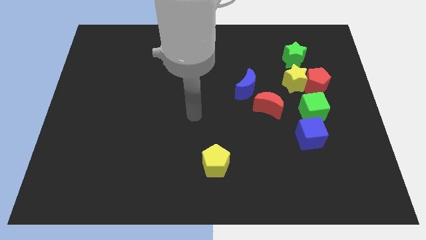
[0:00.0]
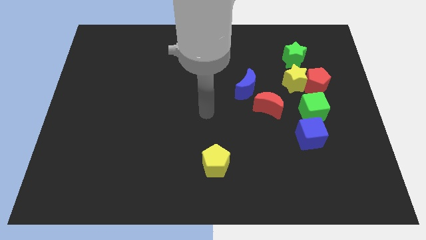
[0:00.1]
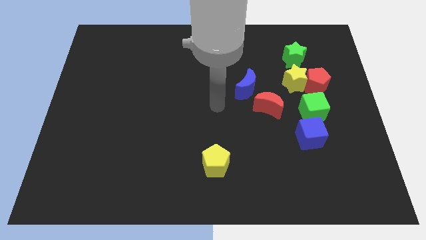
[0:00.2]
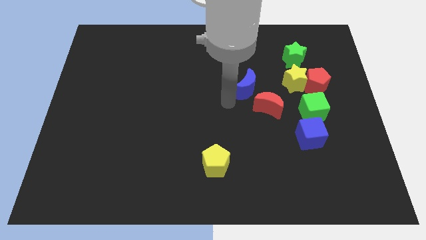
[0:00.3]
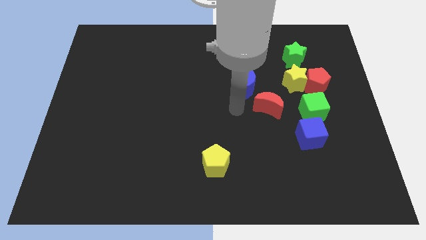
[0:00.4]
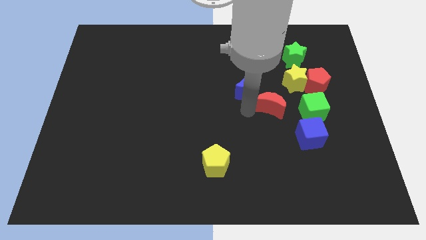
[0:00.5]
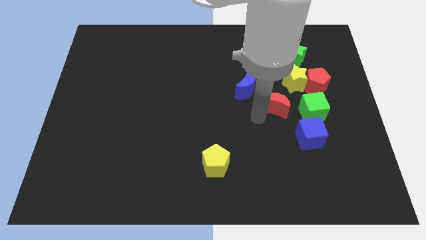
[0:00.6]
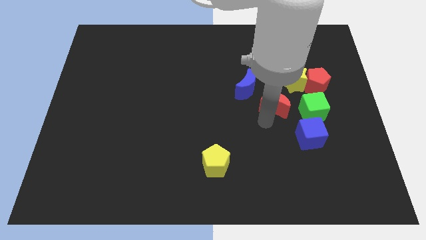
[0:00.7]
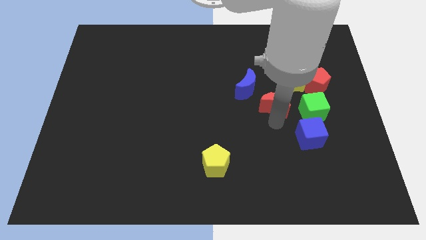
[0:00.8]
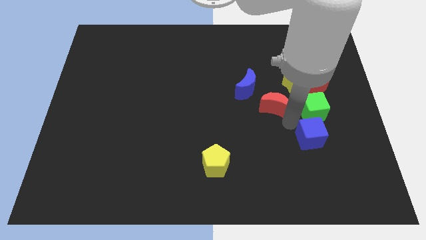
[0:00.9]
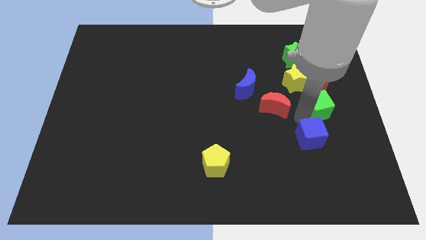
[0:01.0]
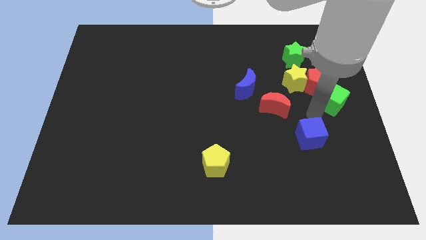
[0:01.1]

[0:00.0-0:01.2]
move the blue cube away from the green cube

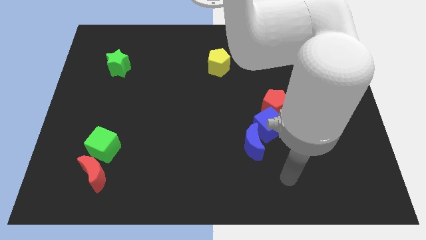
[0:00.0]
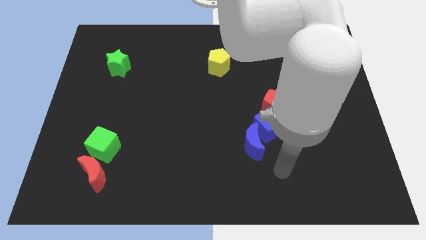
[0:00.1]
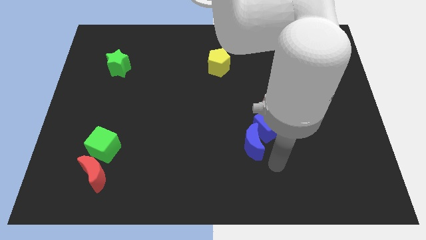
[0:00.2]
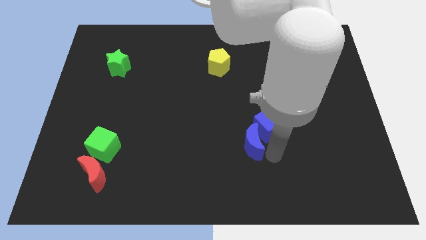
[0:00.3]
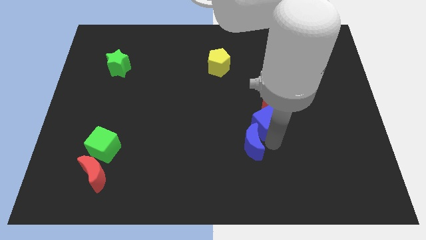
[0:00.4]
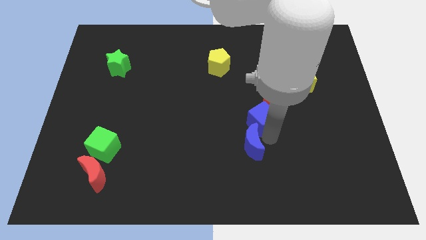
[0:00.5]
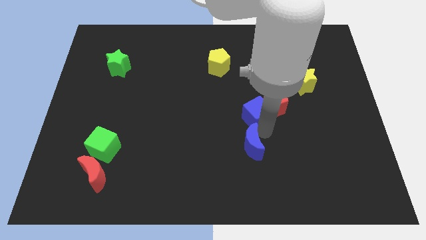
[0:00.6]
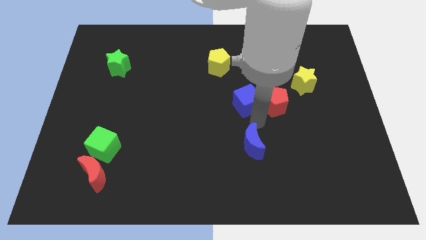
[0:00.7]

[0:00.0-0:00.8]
pull the blue moon apart from the blue cube

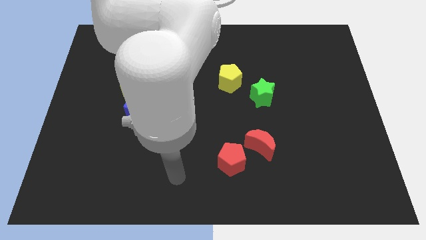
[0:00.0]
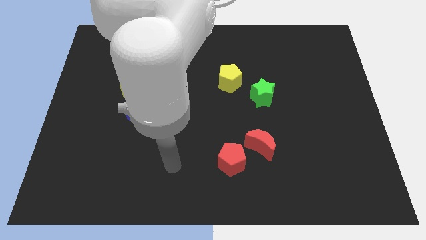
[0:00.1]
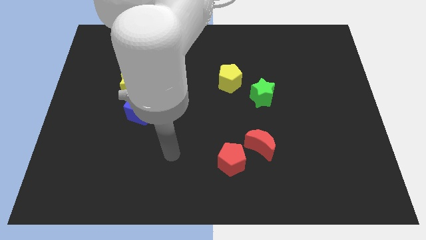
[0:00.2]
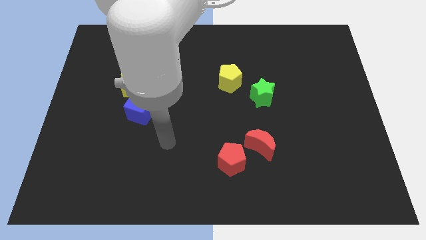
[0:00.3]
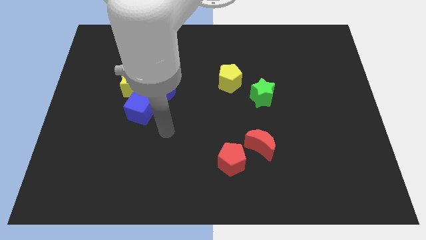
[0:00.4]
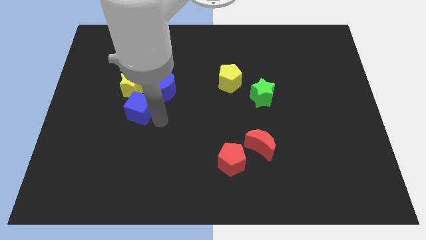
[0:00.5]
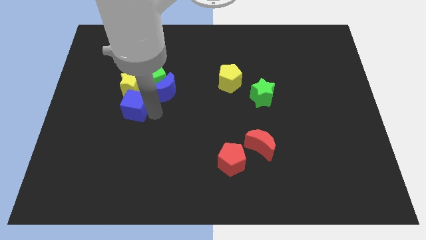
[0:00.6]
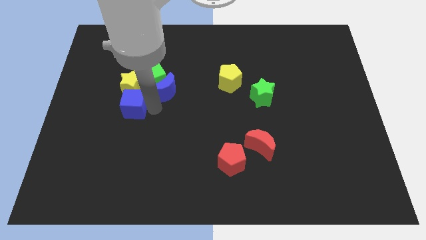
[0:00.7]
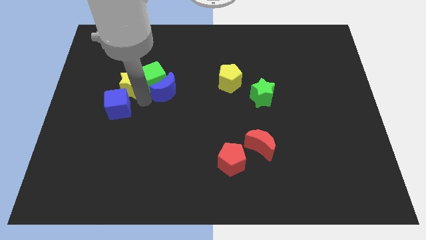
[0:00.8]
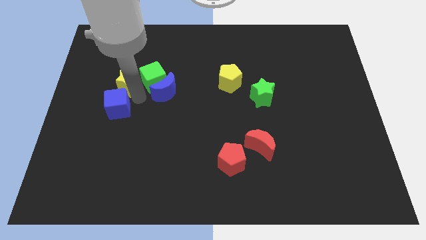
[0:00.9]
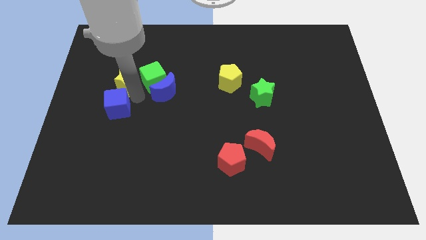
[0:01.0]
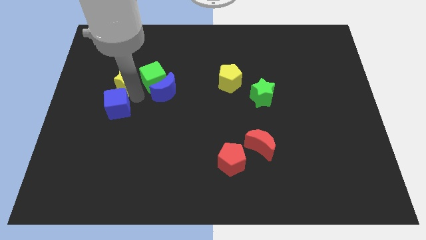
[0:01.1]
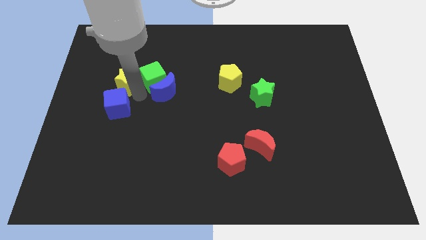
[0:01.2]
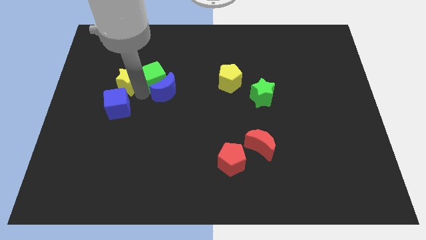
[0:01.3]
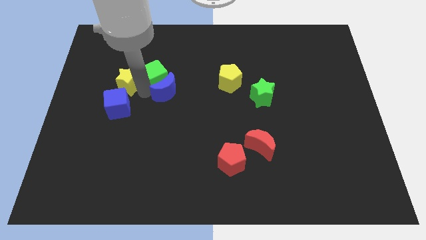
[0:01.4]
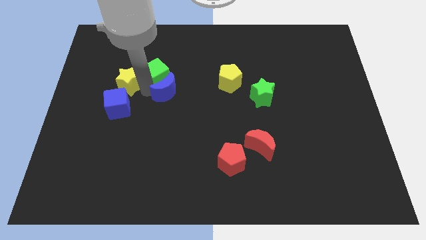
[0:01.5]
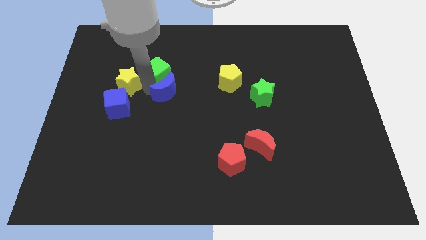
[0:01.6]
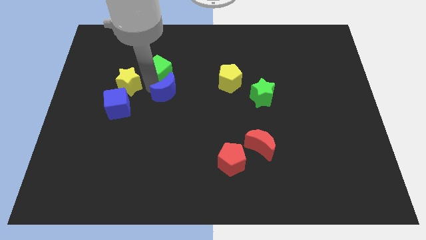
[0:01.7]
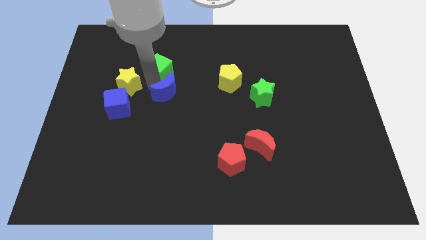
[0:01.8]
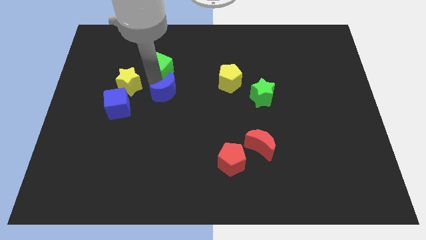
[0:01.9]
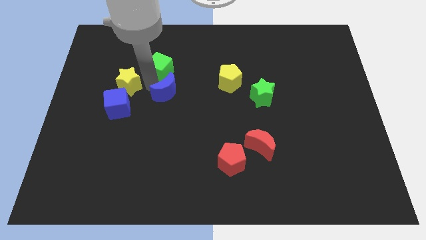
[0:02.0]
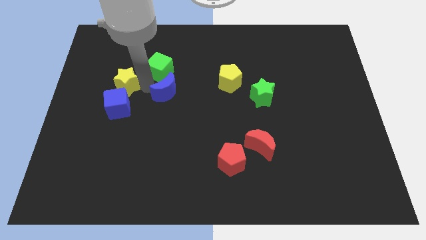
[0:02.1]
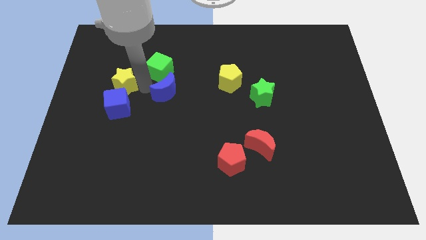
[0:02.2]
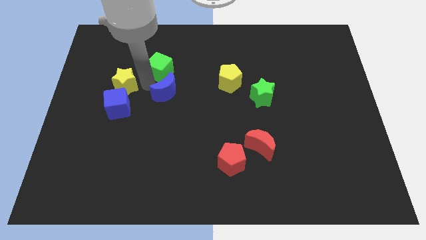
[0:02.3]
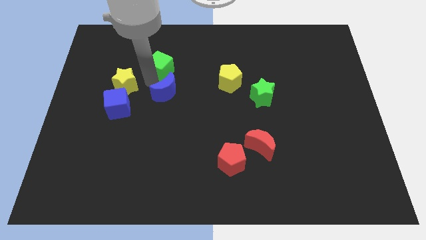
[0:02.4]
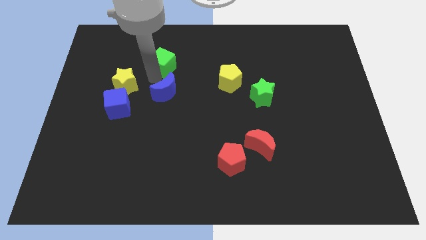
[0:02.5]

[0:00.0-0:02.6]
pull the green cube apart from the clump

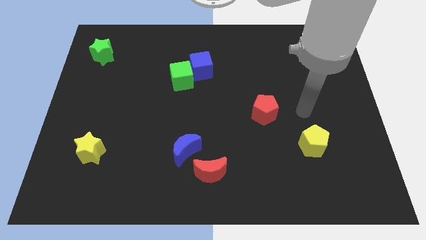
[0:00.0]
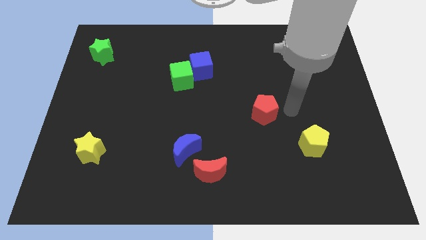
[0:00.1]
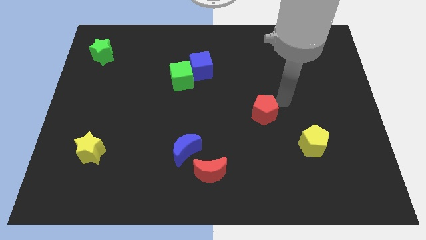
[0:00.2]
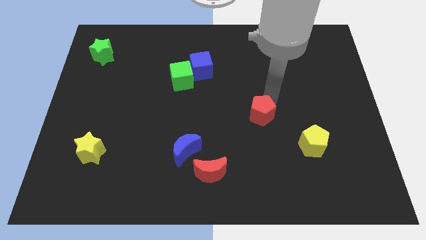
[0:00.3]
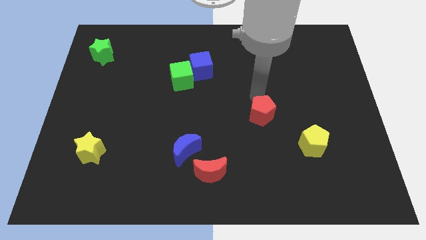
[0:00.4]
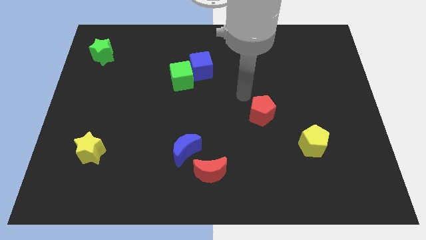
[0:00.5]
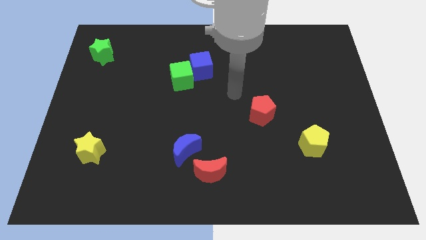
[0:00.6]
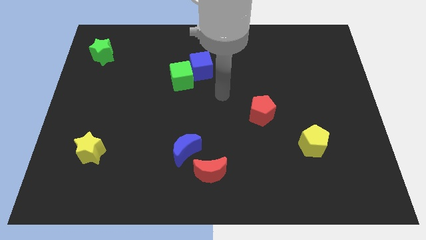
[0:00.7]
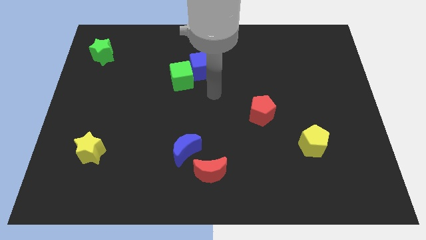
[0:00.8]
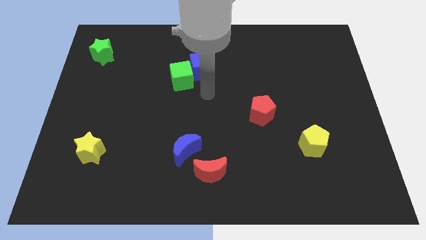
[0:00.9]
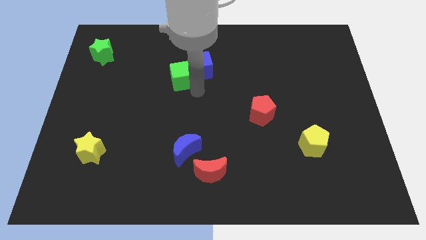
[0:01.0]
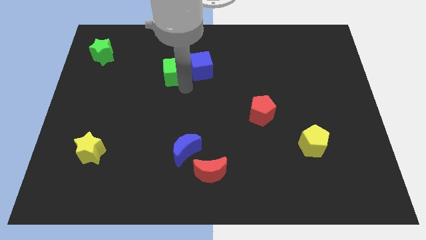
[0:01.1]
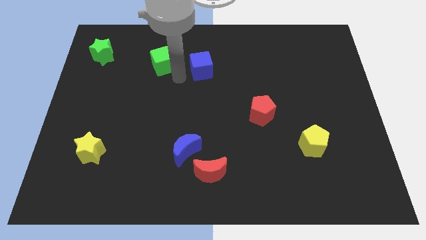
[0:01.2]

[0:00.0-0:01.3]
pull the blue cube apart from the green cube

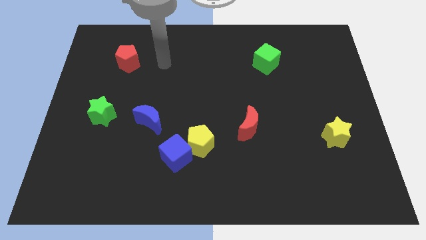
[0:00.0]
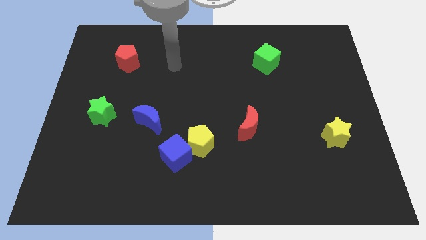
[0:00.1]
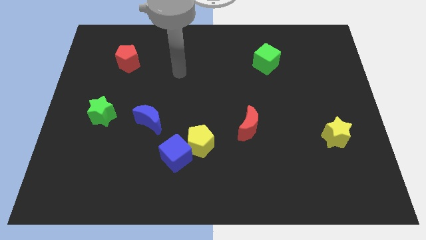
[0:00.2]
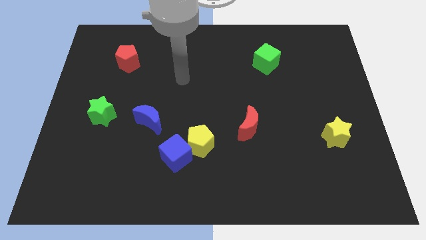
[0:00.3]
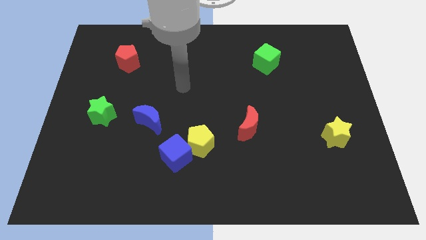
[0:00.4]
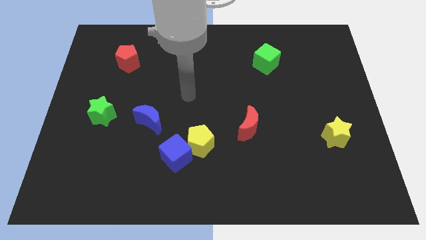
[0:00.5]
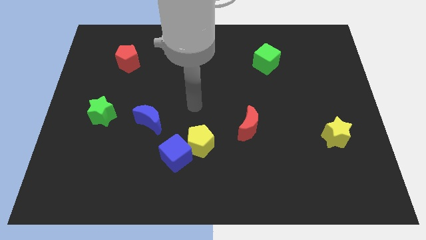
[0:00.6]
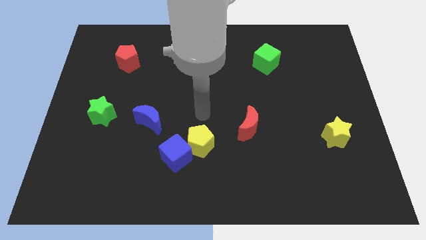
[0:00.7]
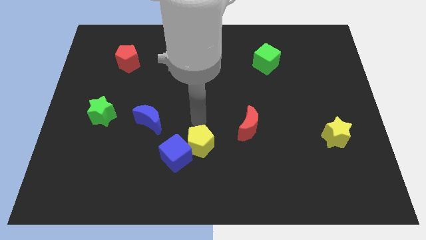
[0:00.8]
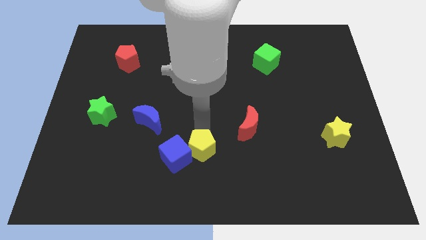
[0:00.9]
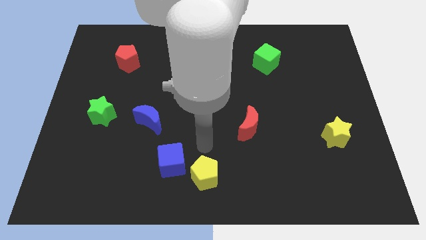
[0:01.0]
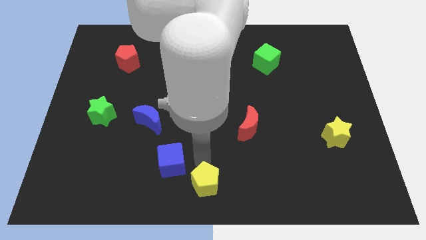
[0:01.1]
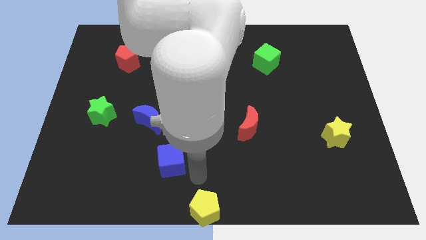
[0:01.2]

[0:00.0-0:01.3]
move the blue cube away from the yellow pentagon

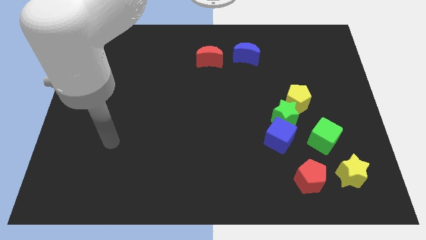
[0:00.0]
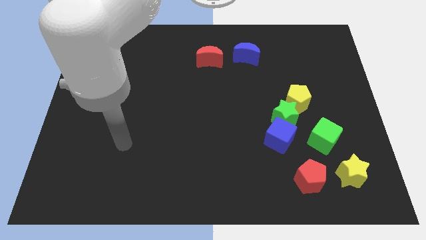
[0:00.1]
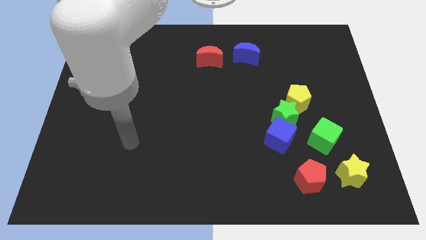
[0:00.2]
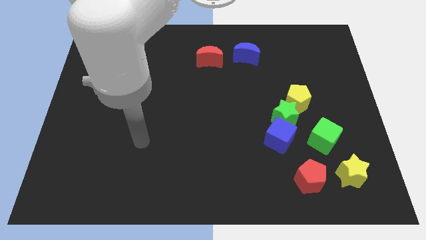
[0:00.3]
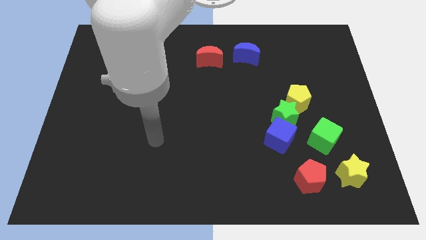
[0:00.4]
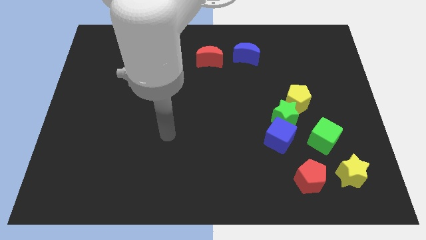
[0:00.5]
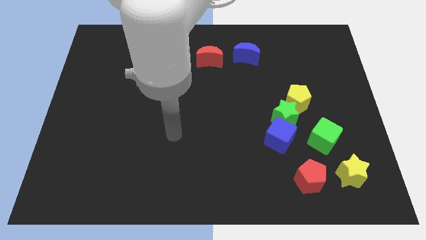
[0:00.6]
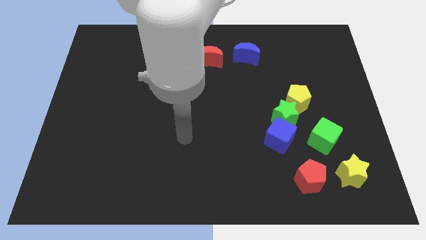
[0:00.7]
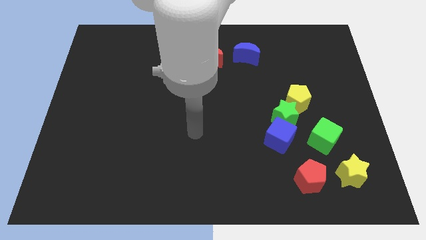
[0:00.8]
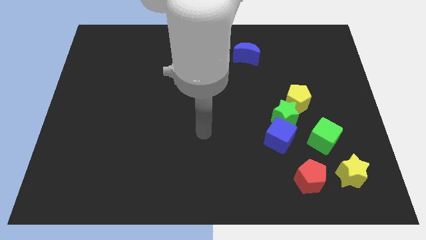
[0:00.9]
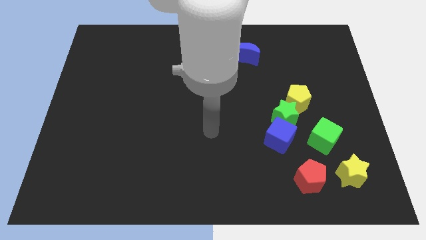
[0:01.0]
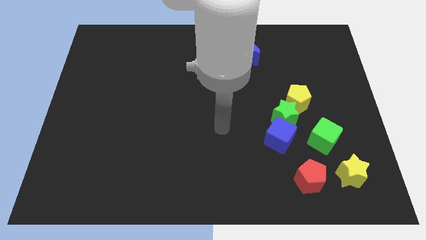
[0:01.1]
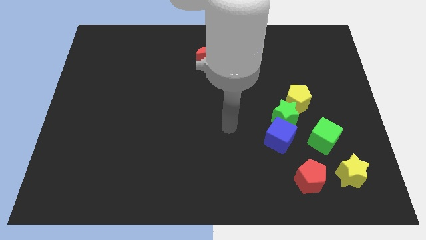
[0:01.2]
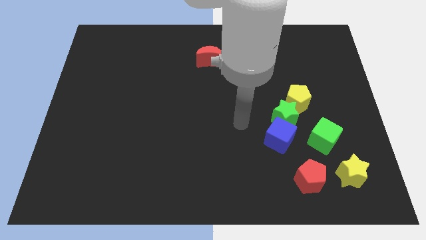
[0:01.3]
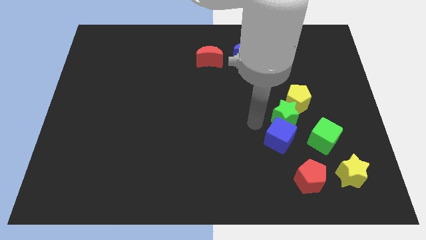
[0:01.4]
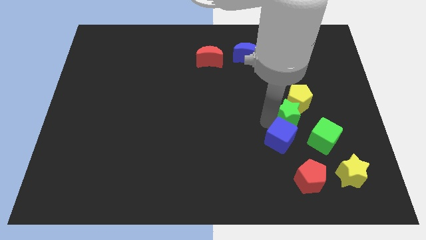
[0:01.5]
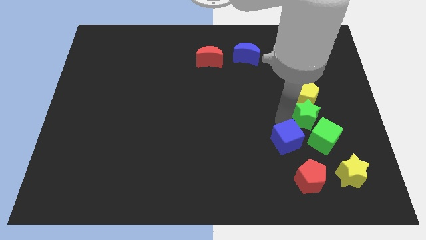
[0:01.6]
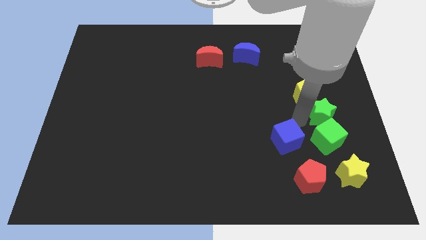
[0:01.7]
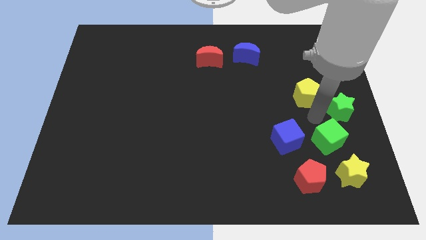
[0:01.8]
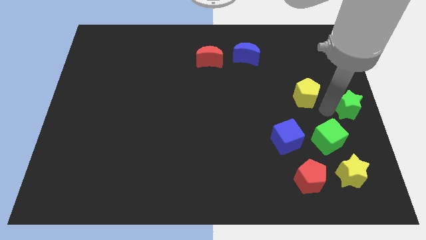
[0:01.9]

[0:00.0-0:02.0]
separate the yellow pentagon from the green star

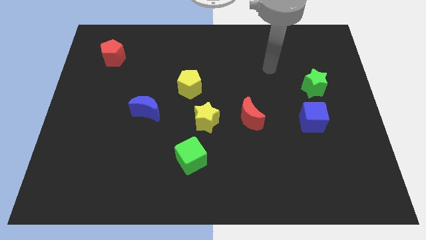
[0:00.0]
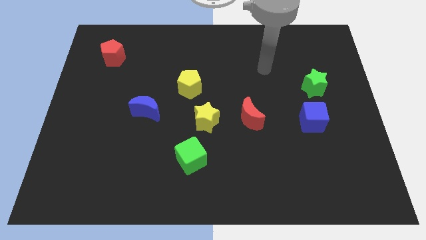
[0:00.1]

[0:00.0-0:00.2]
separate the red moon from the yellow star
